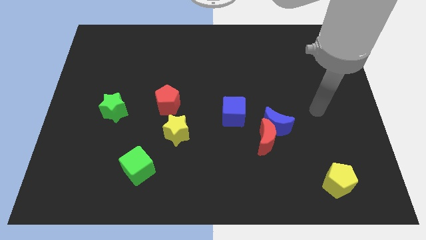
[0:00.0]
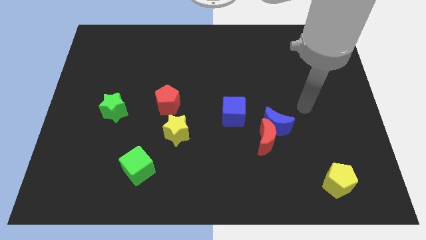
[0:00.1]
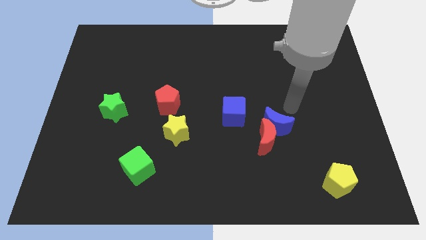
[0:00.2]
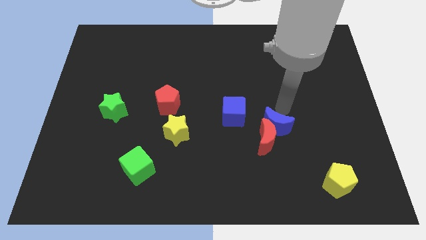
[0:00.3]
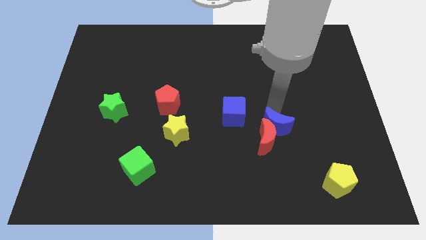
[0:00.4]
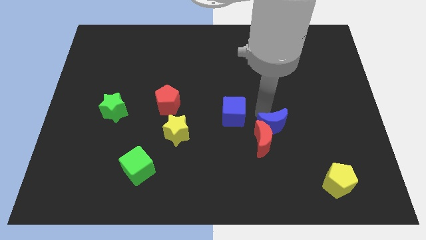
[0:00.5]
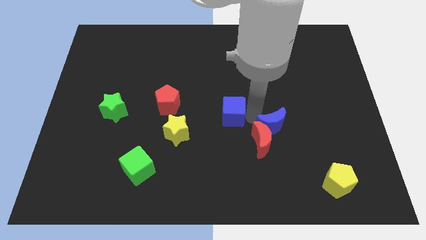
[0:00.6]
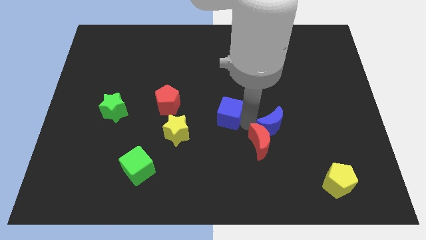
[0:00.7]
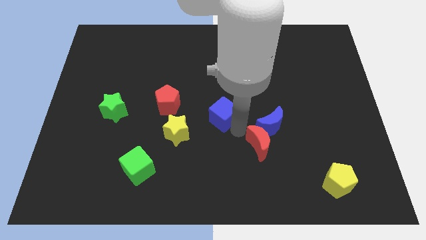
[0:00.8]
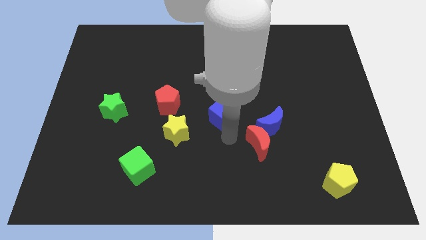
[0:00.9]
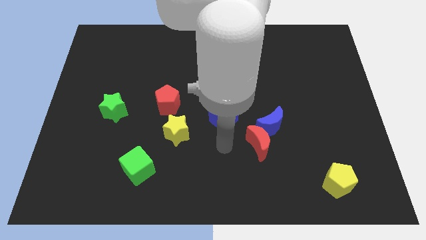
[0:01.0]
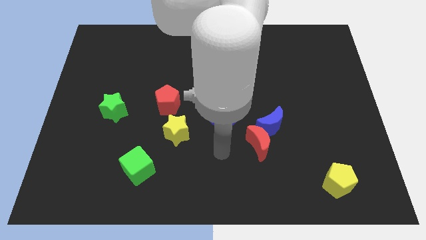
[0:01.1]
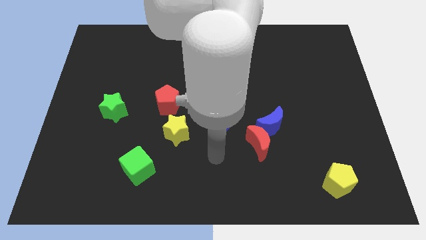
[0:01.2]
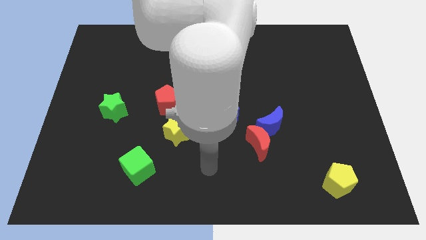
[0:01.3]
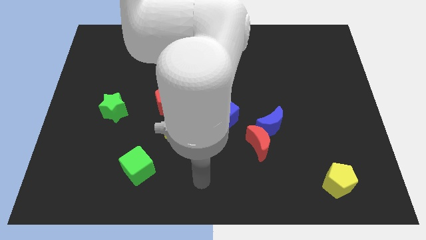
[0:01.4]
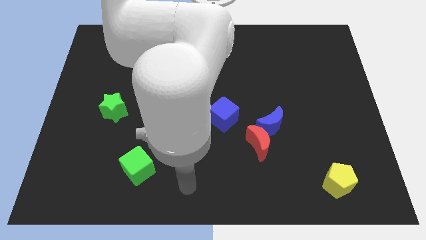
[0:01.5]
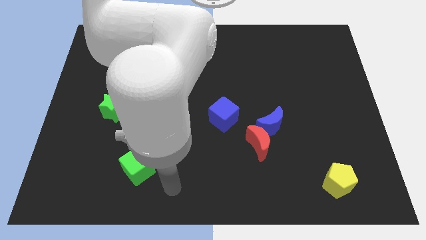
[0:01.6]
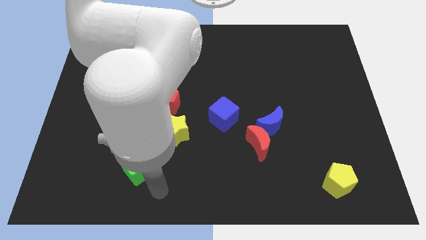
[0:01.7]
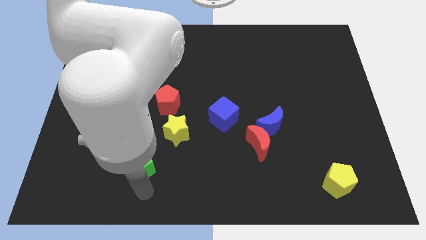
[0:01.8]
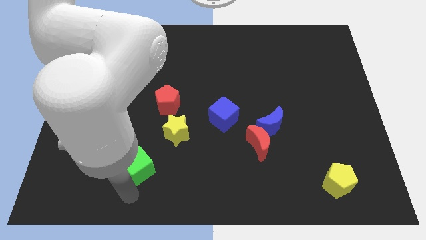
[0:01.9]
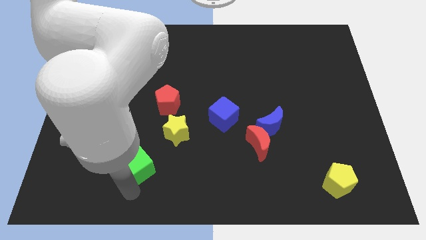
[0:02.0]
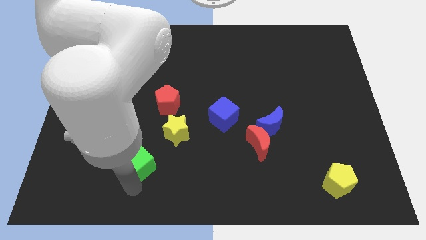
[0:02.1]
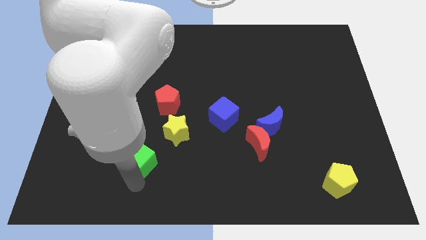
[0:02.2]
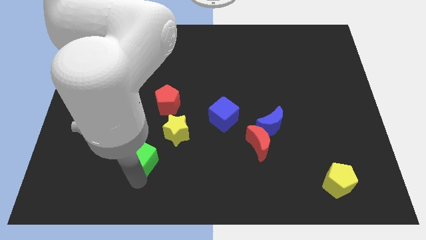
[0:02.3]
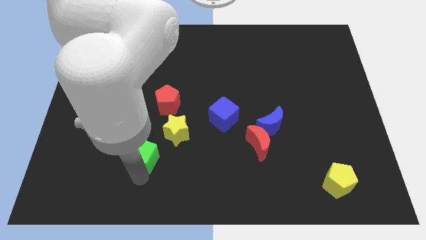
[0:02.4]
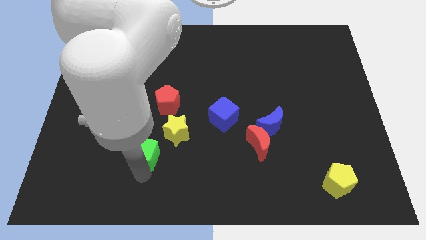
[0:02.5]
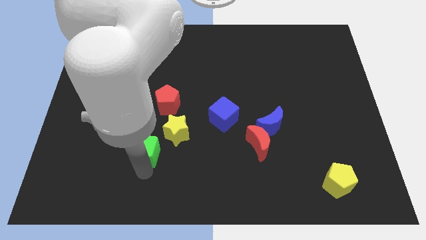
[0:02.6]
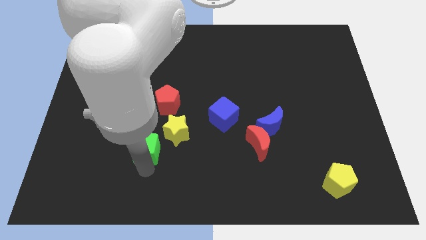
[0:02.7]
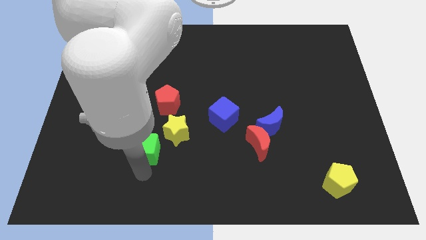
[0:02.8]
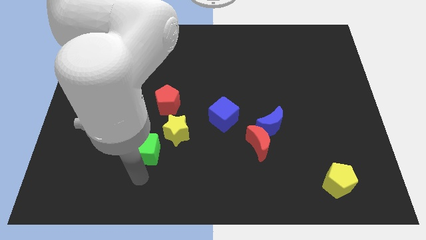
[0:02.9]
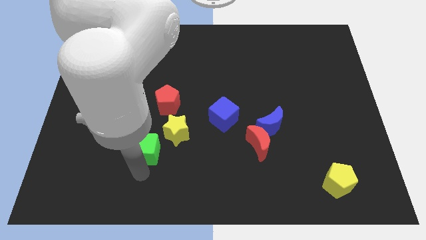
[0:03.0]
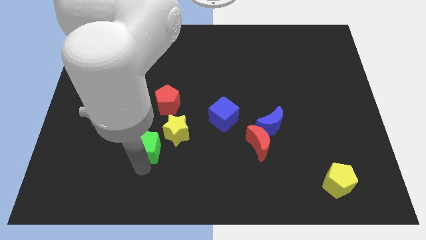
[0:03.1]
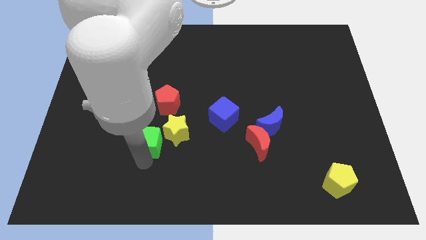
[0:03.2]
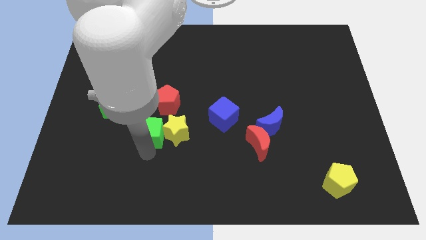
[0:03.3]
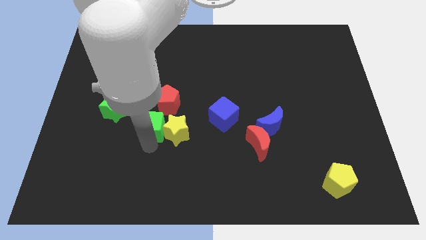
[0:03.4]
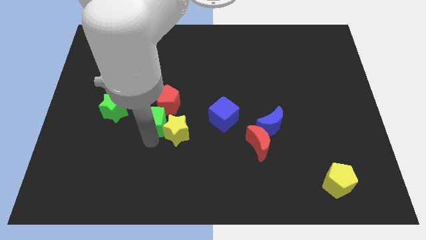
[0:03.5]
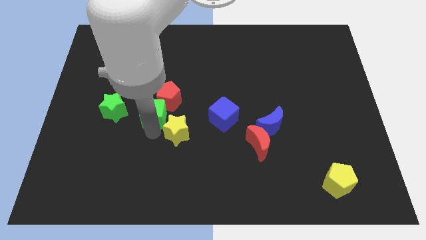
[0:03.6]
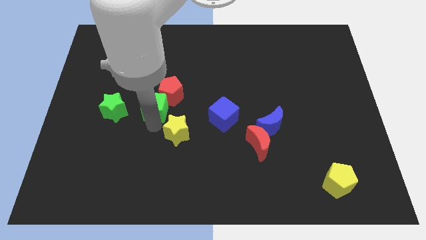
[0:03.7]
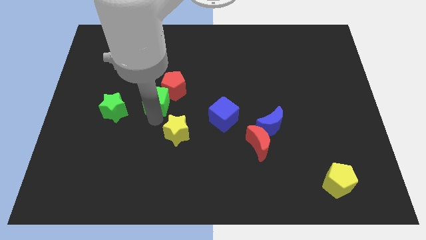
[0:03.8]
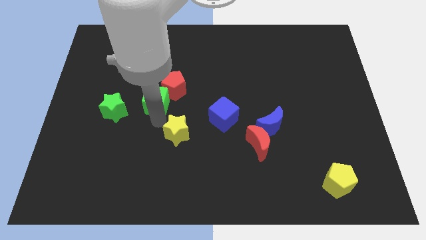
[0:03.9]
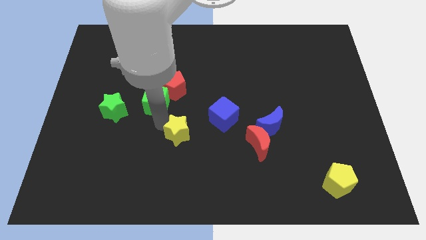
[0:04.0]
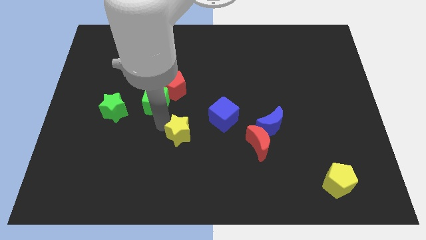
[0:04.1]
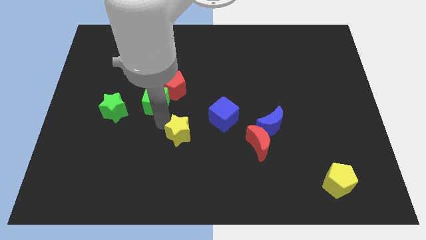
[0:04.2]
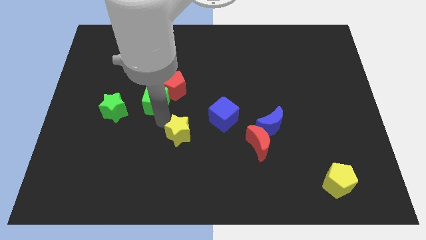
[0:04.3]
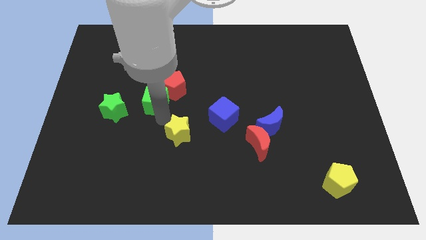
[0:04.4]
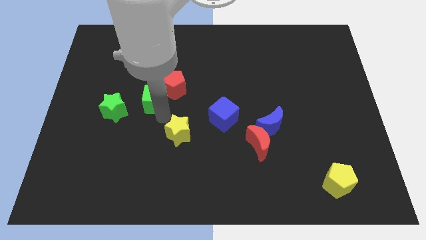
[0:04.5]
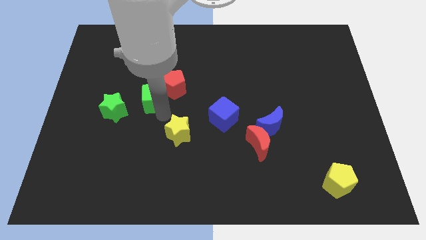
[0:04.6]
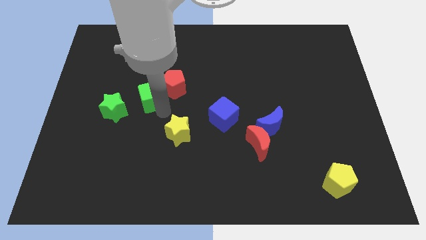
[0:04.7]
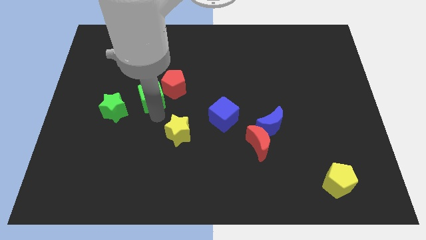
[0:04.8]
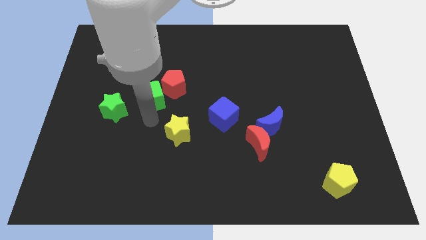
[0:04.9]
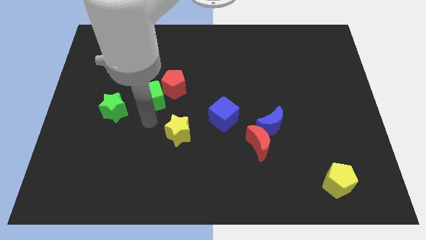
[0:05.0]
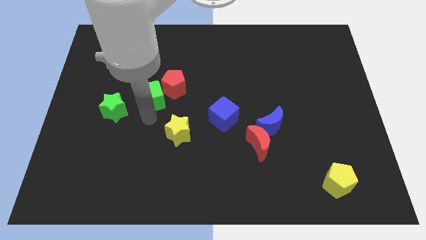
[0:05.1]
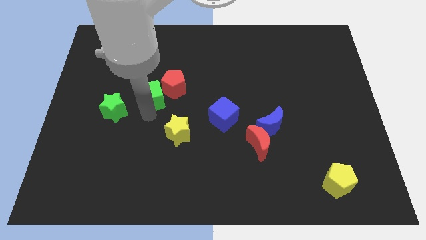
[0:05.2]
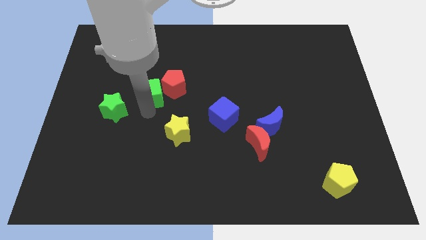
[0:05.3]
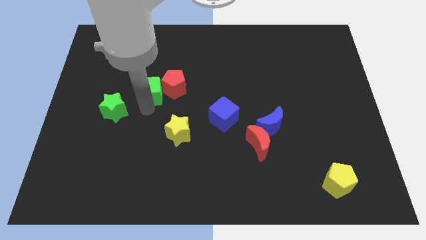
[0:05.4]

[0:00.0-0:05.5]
push the green cube up

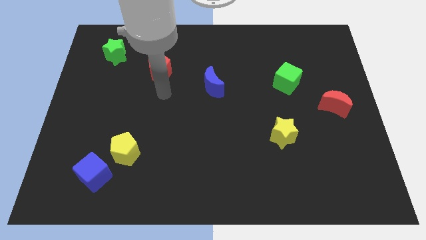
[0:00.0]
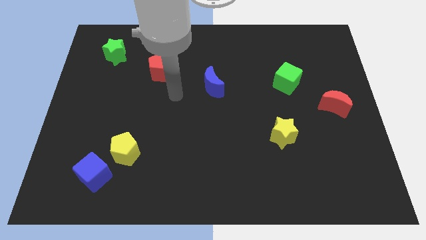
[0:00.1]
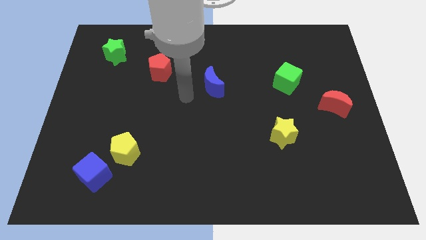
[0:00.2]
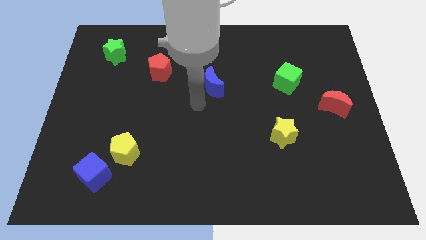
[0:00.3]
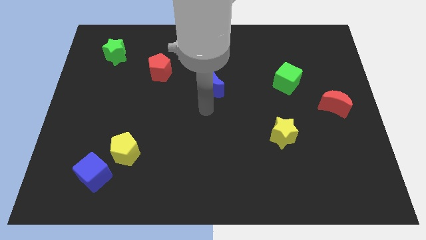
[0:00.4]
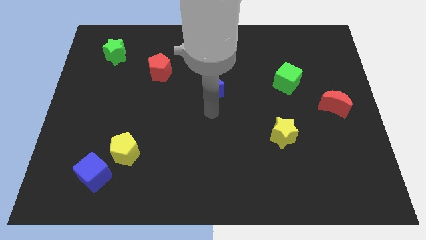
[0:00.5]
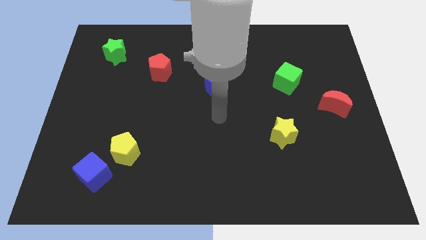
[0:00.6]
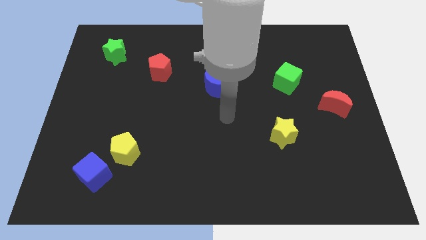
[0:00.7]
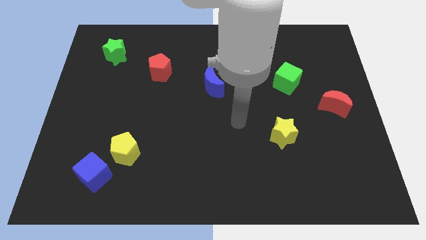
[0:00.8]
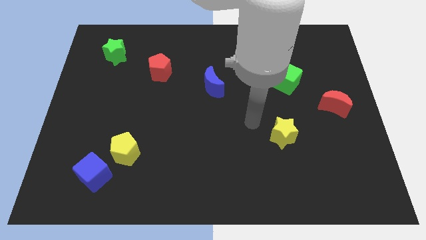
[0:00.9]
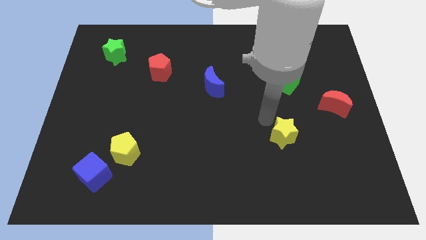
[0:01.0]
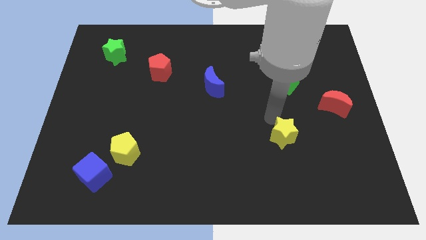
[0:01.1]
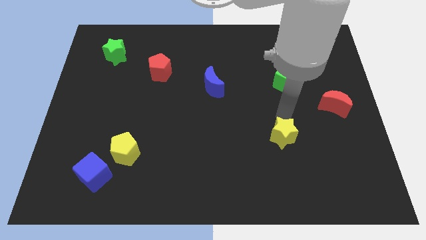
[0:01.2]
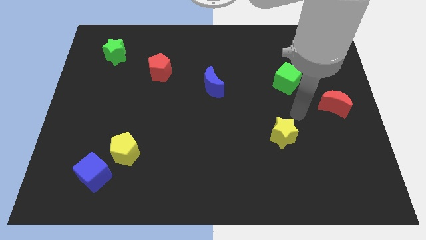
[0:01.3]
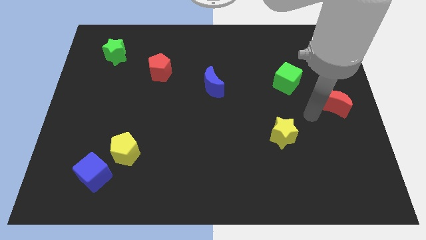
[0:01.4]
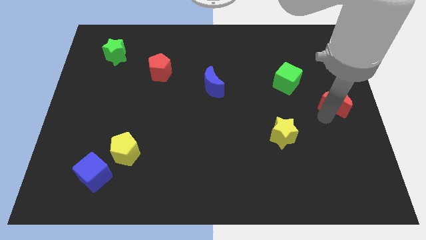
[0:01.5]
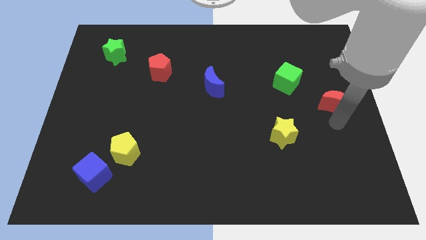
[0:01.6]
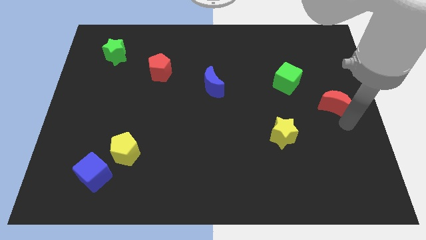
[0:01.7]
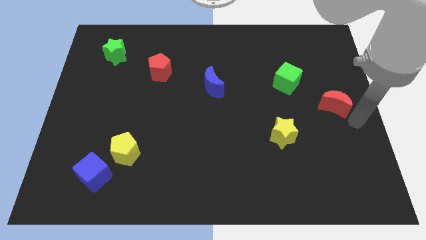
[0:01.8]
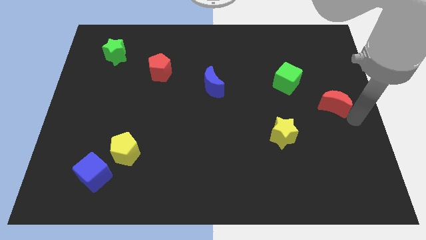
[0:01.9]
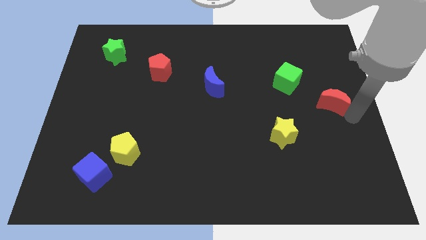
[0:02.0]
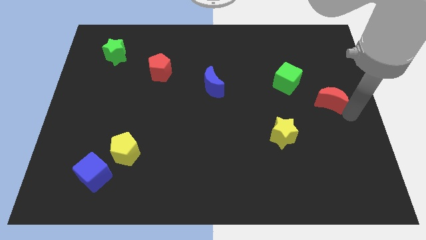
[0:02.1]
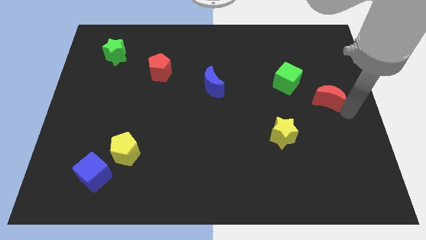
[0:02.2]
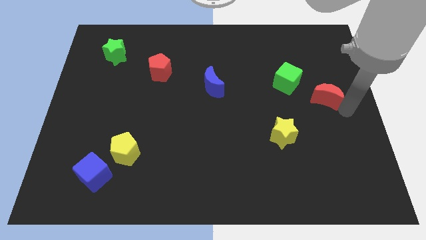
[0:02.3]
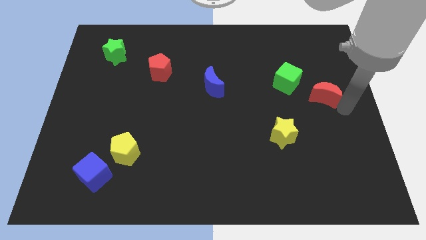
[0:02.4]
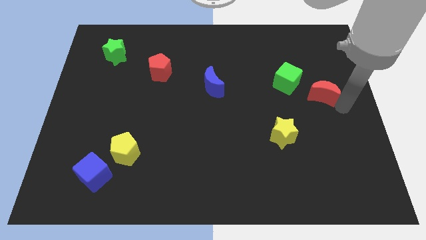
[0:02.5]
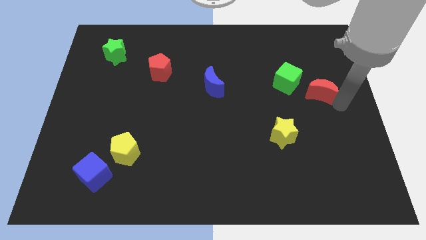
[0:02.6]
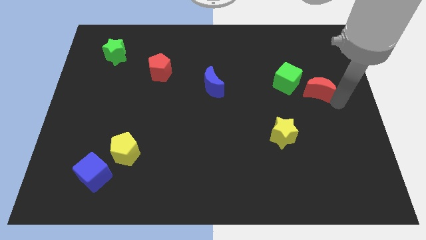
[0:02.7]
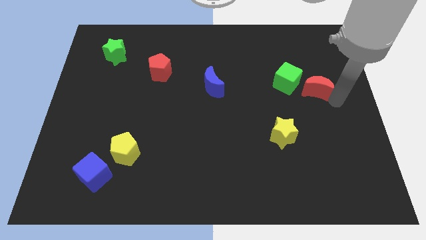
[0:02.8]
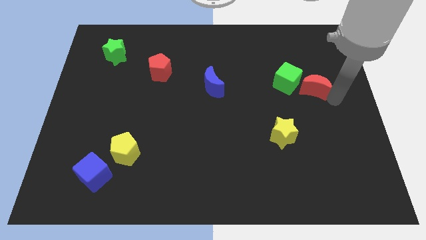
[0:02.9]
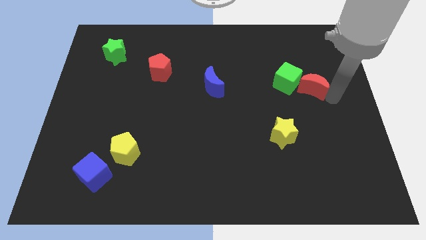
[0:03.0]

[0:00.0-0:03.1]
slightly move the red moon diagonally up and left
